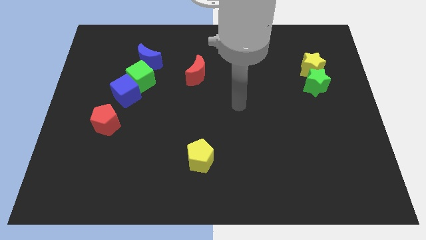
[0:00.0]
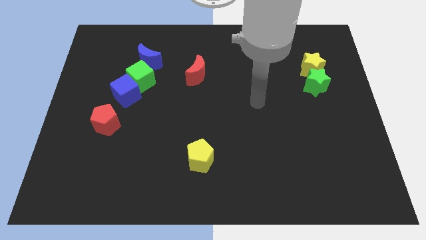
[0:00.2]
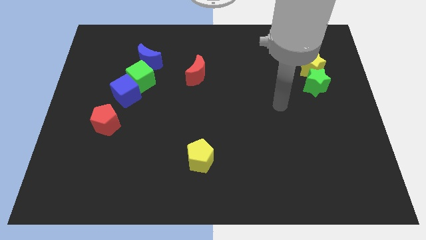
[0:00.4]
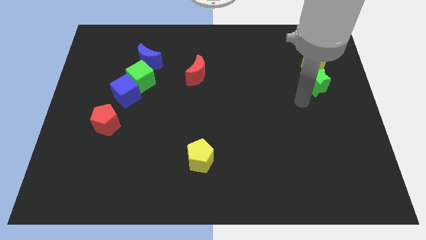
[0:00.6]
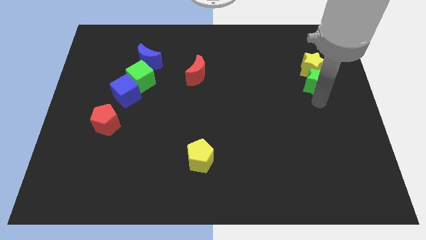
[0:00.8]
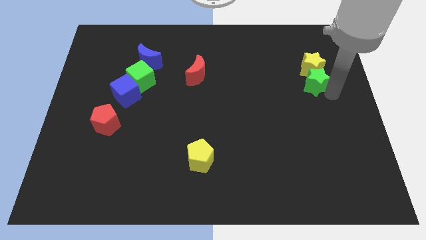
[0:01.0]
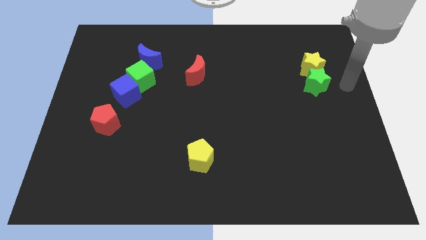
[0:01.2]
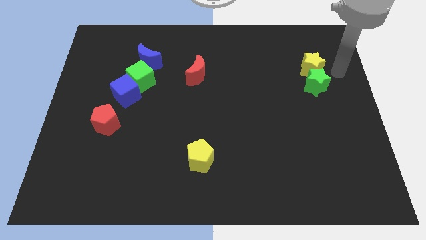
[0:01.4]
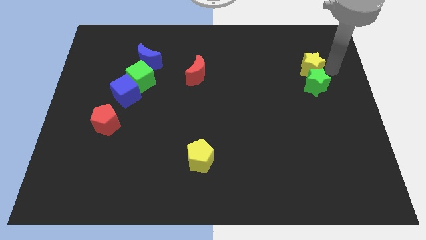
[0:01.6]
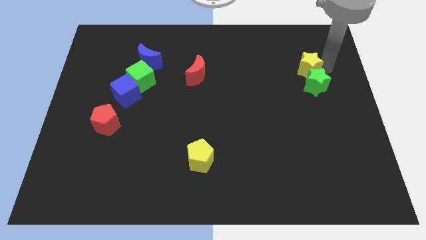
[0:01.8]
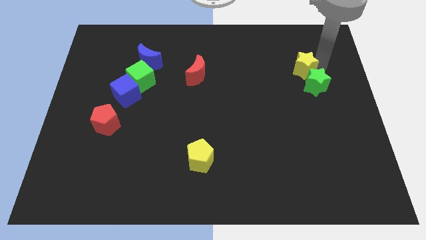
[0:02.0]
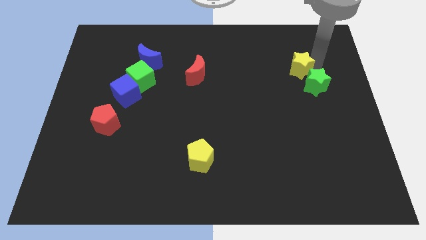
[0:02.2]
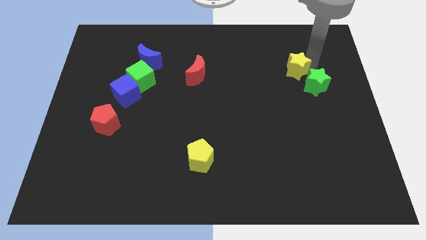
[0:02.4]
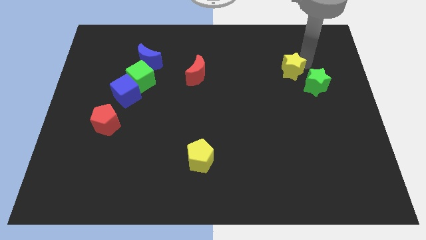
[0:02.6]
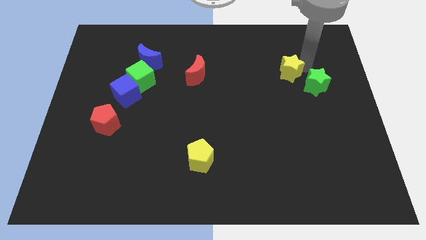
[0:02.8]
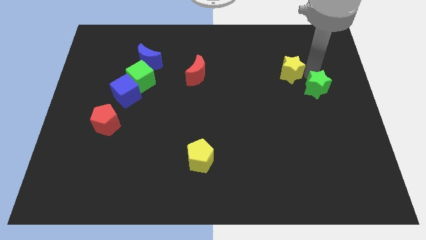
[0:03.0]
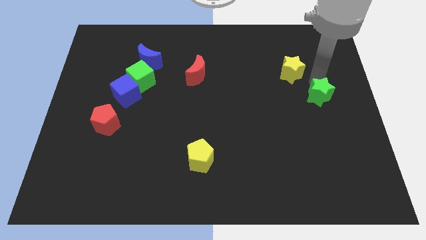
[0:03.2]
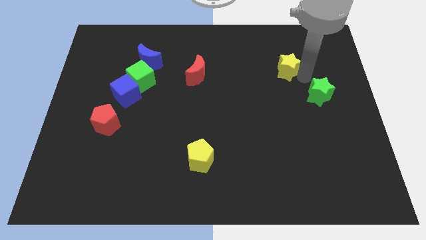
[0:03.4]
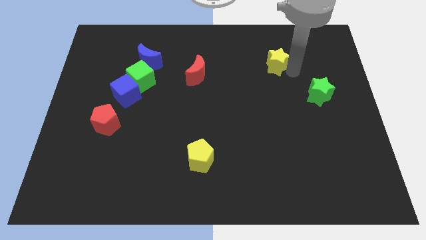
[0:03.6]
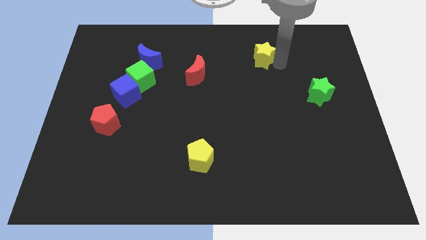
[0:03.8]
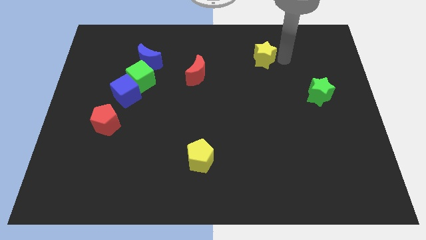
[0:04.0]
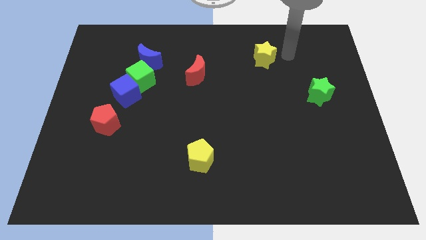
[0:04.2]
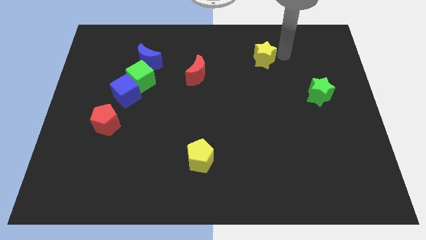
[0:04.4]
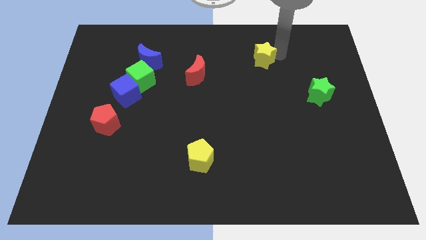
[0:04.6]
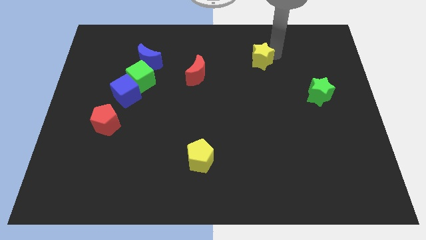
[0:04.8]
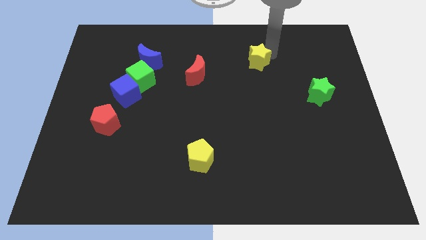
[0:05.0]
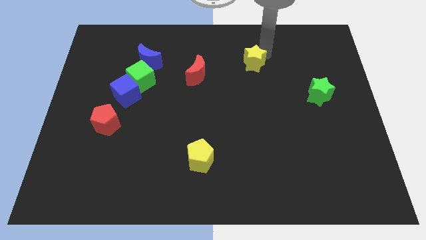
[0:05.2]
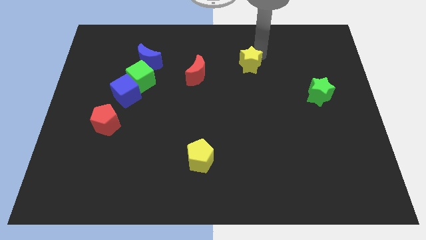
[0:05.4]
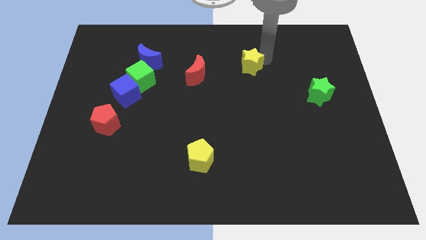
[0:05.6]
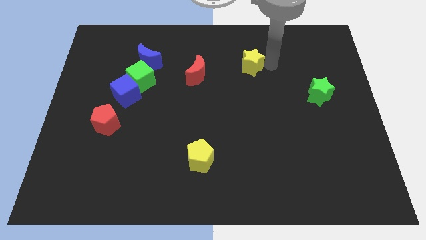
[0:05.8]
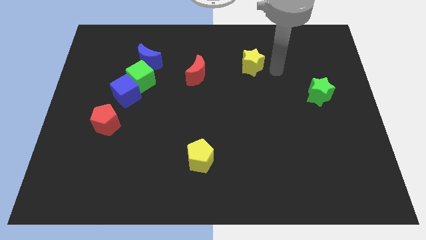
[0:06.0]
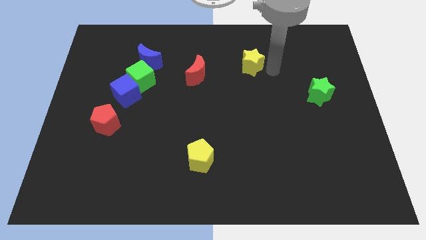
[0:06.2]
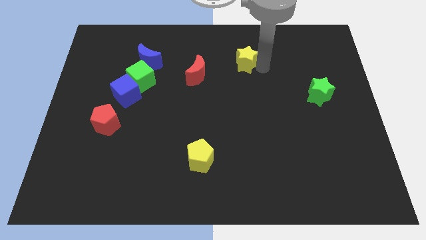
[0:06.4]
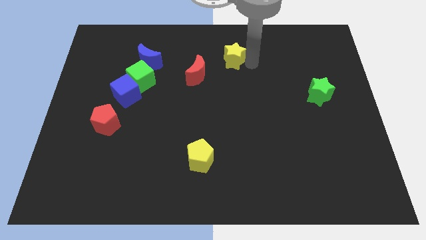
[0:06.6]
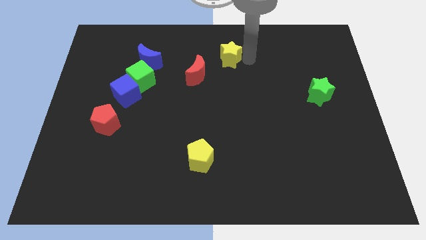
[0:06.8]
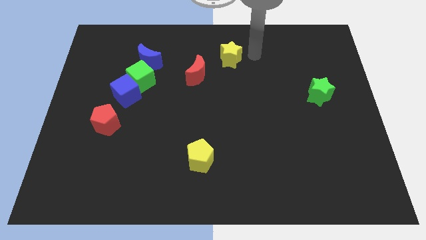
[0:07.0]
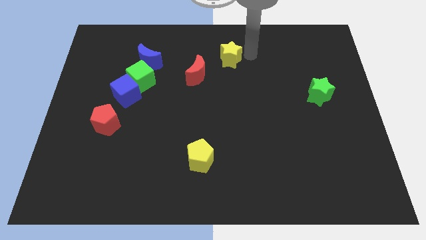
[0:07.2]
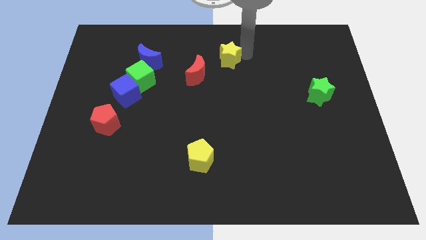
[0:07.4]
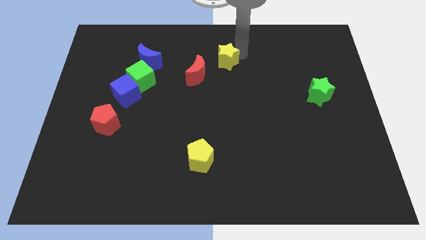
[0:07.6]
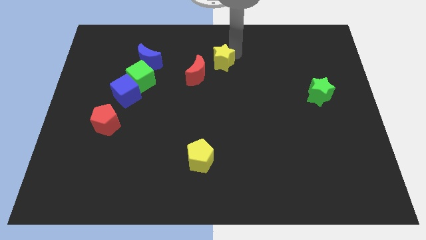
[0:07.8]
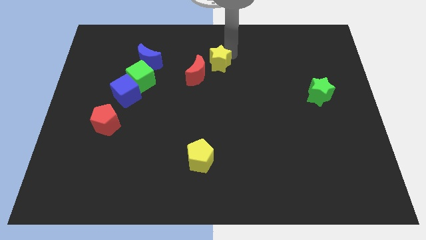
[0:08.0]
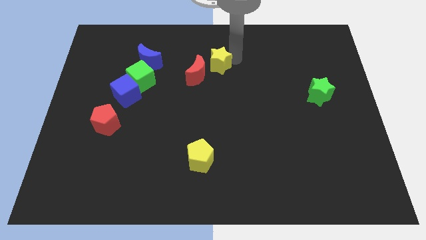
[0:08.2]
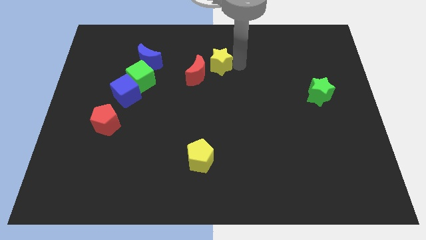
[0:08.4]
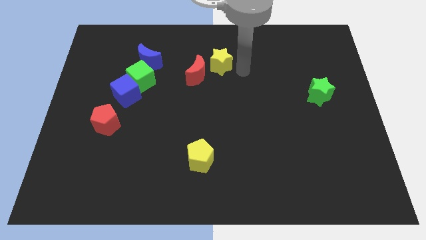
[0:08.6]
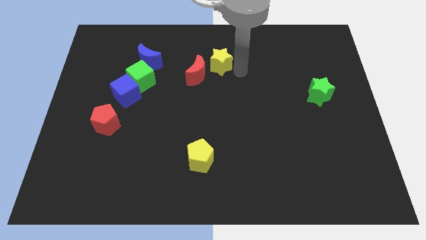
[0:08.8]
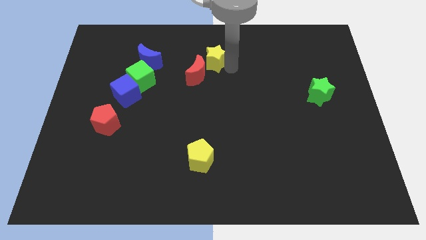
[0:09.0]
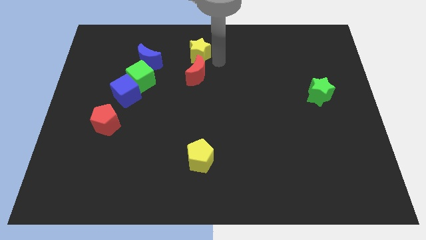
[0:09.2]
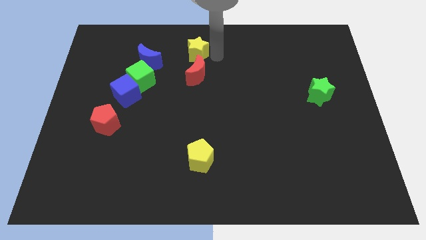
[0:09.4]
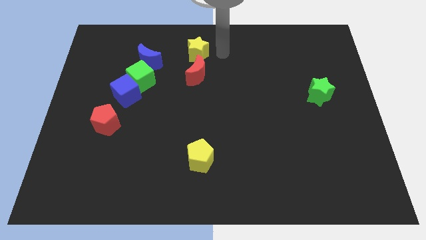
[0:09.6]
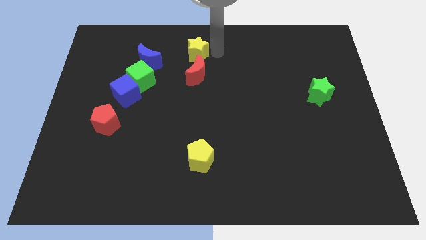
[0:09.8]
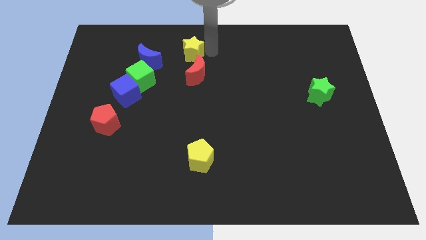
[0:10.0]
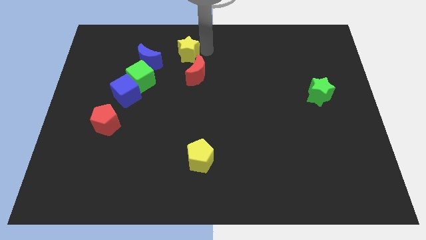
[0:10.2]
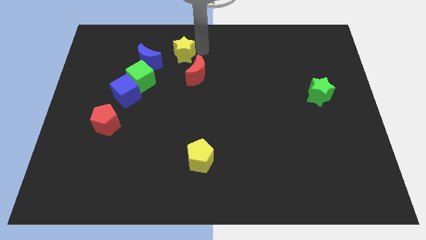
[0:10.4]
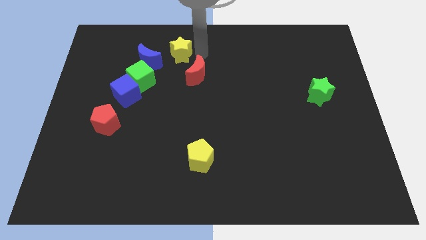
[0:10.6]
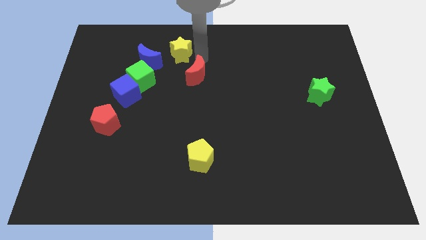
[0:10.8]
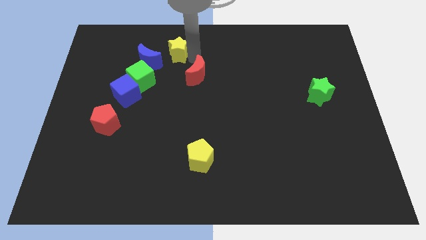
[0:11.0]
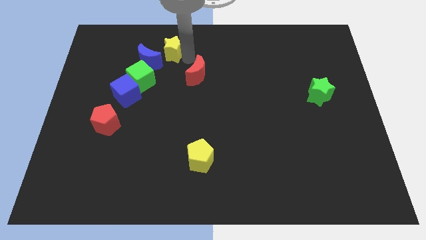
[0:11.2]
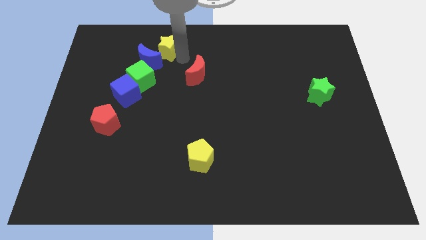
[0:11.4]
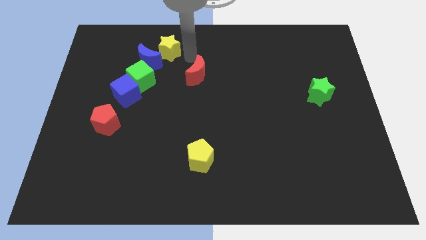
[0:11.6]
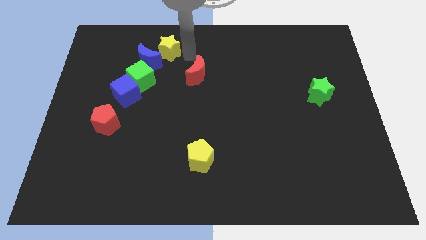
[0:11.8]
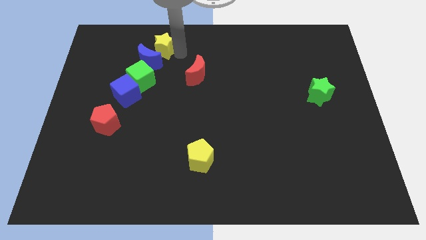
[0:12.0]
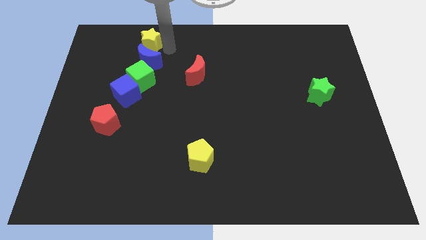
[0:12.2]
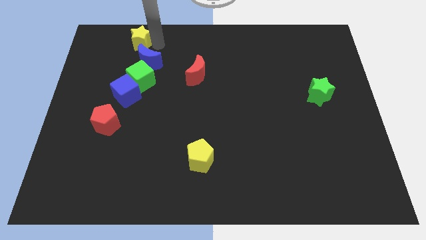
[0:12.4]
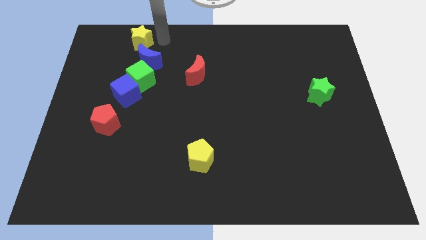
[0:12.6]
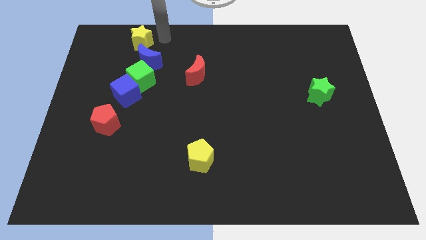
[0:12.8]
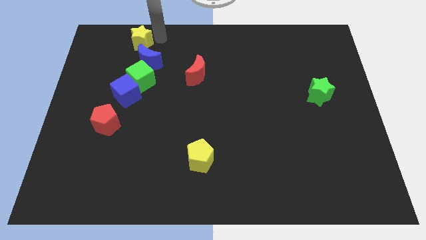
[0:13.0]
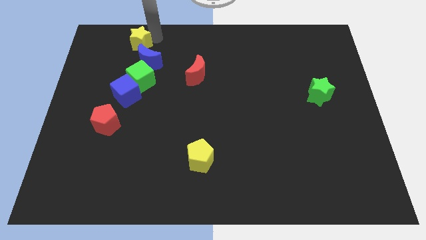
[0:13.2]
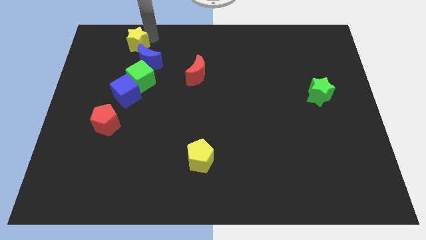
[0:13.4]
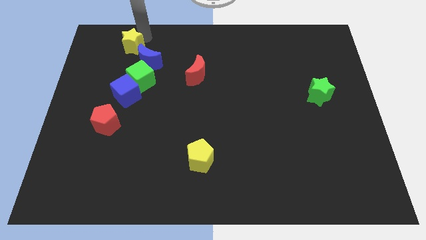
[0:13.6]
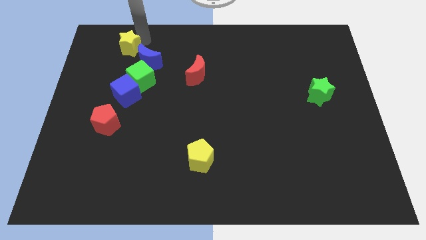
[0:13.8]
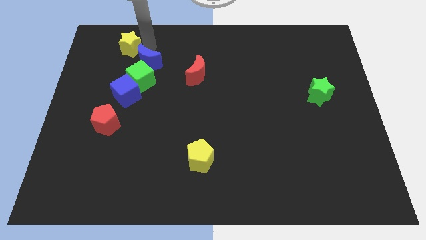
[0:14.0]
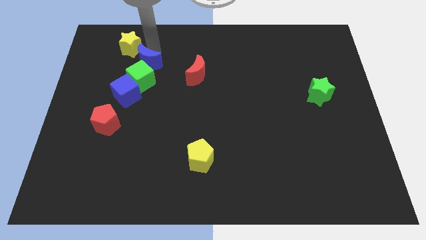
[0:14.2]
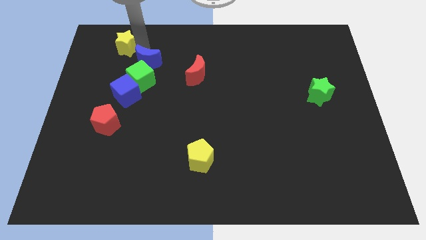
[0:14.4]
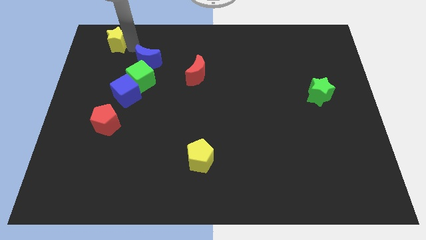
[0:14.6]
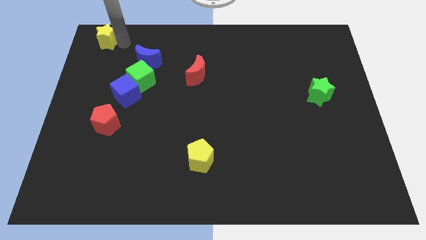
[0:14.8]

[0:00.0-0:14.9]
slide the yellow star to the top left of the board
